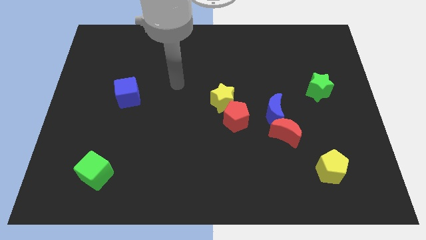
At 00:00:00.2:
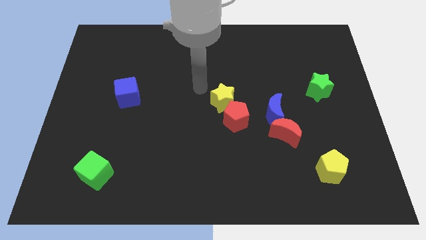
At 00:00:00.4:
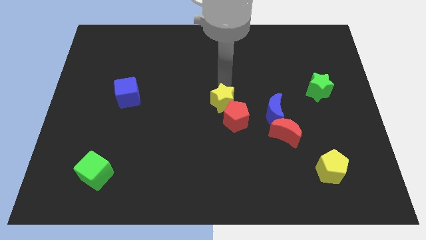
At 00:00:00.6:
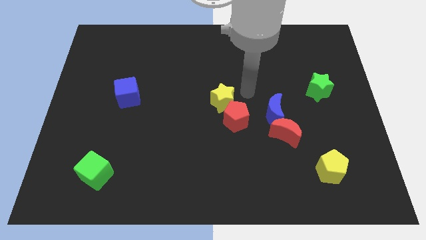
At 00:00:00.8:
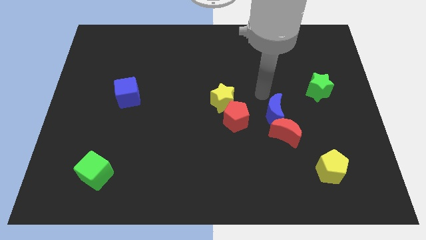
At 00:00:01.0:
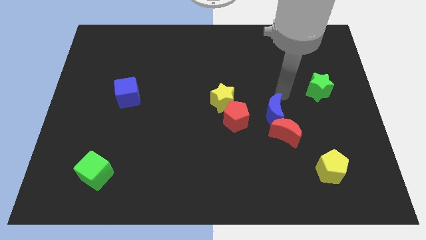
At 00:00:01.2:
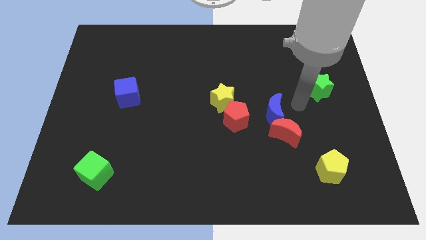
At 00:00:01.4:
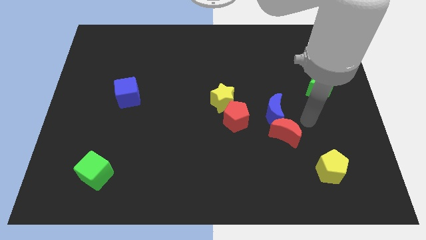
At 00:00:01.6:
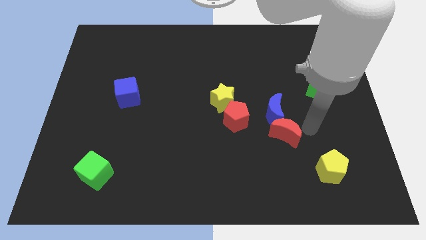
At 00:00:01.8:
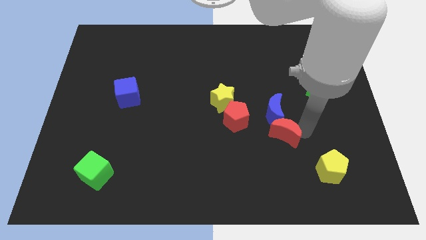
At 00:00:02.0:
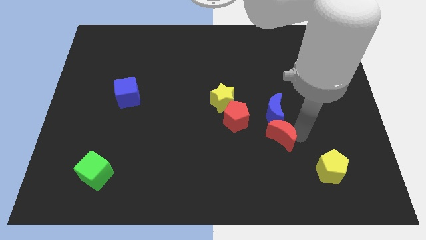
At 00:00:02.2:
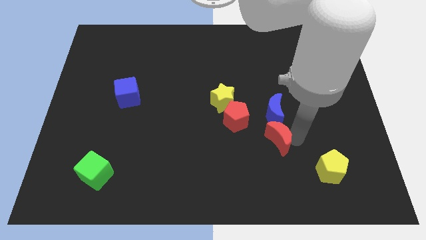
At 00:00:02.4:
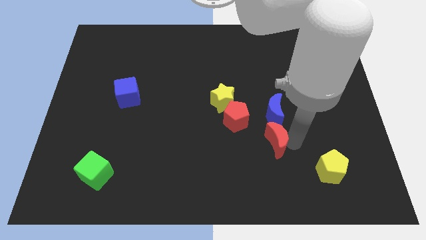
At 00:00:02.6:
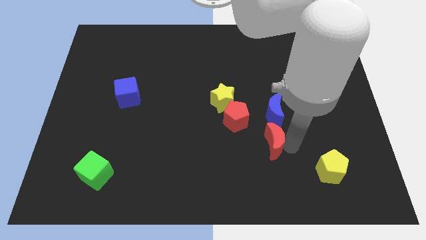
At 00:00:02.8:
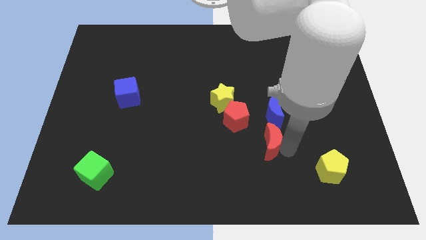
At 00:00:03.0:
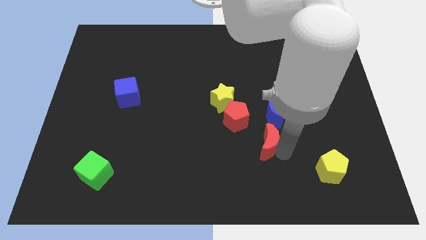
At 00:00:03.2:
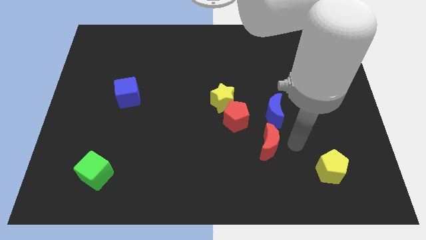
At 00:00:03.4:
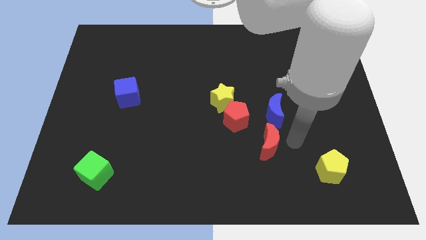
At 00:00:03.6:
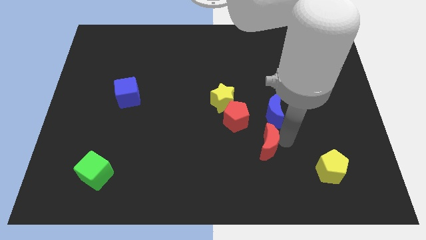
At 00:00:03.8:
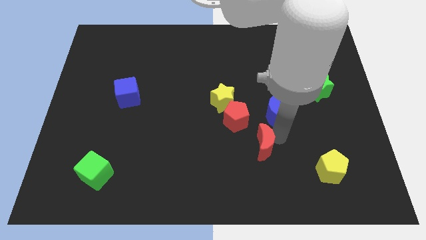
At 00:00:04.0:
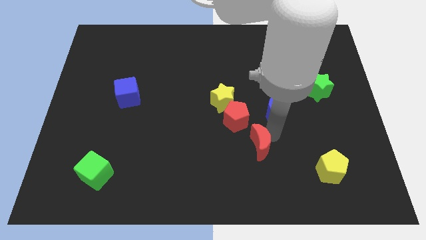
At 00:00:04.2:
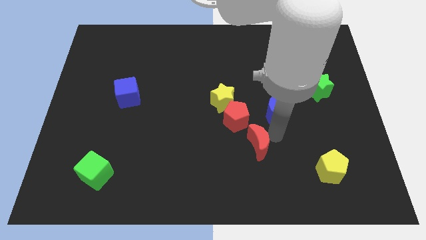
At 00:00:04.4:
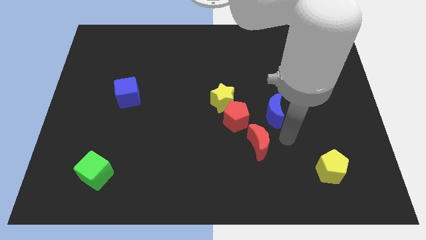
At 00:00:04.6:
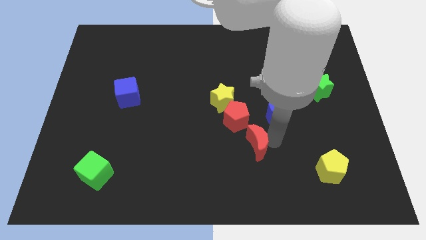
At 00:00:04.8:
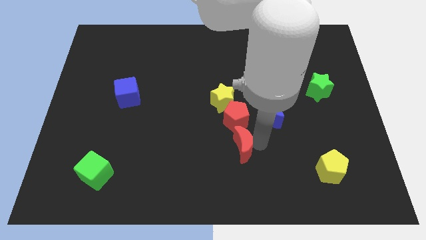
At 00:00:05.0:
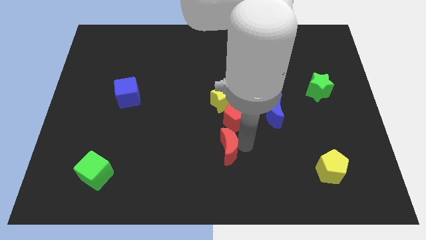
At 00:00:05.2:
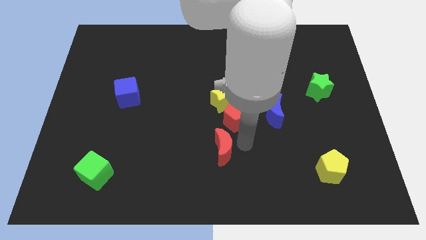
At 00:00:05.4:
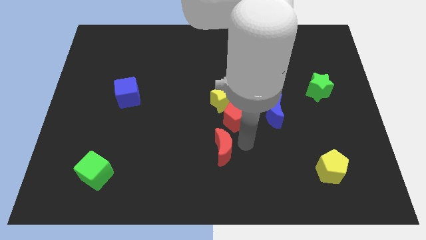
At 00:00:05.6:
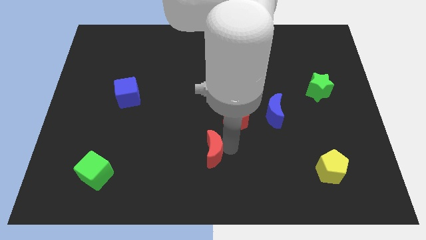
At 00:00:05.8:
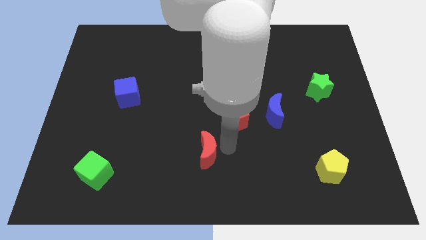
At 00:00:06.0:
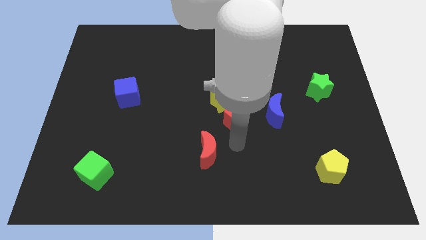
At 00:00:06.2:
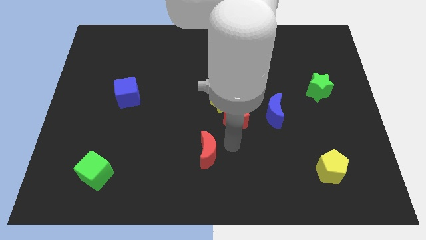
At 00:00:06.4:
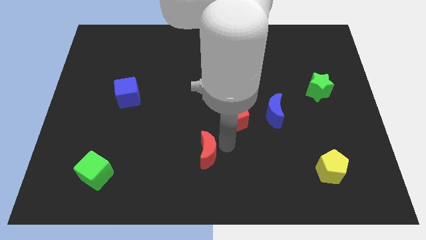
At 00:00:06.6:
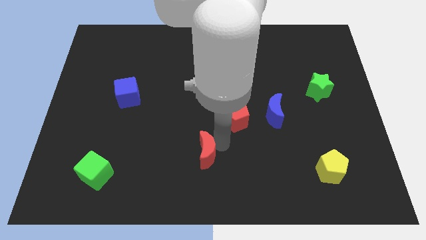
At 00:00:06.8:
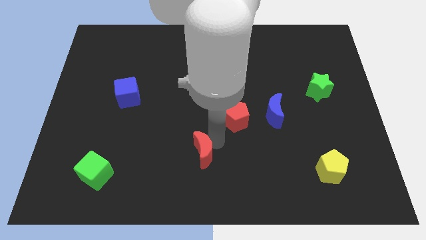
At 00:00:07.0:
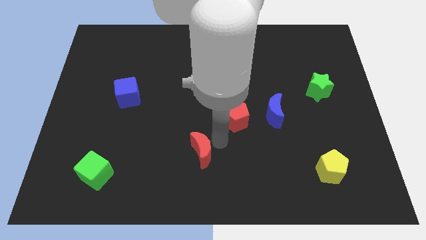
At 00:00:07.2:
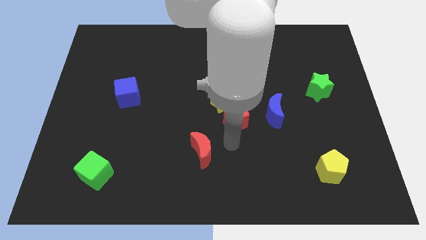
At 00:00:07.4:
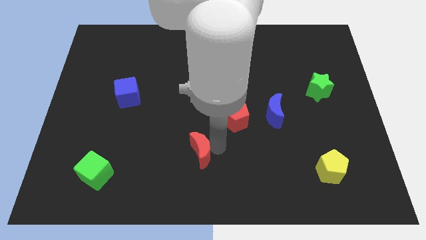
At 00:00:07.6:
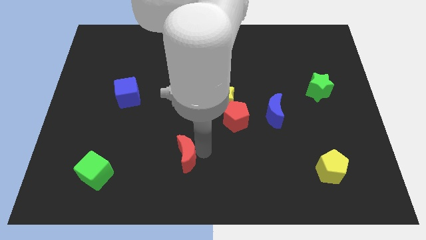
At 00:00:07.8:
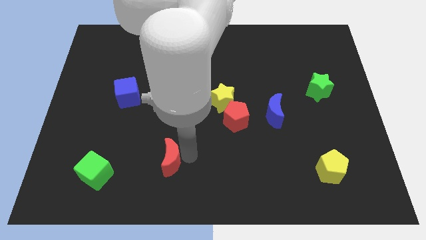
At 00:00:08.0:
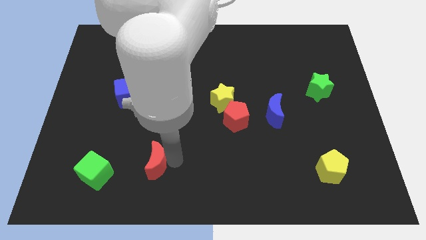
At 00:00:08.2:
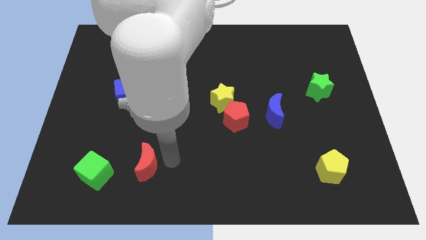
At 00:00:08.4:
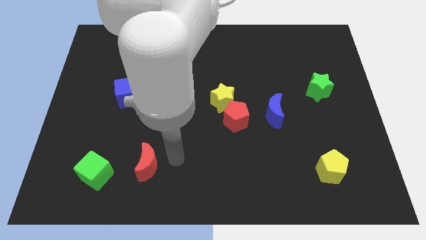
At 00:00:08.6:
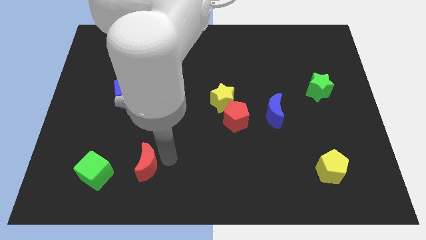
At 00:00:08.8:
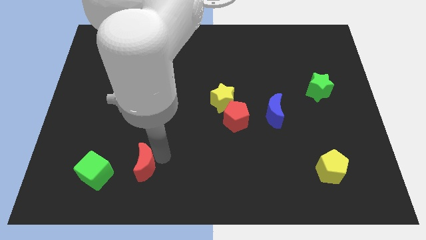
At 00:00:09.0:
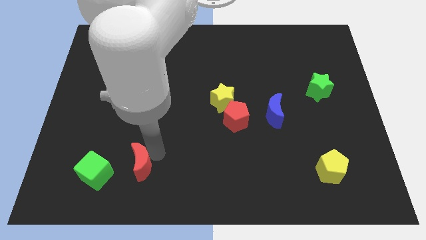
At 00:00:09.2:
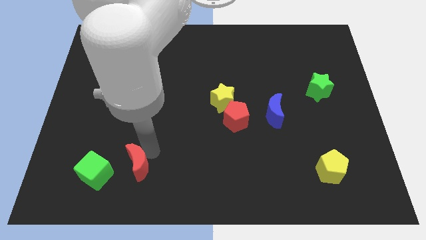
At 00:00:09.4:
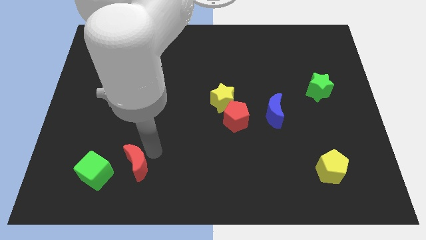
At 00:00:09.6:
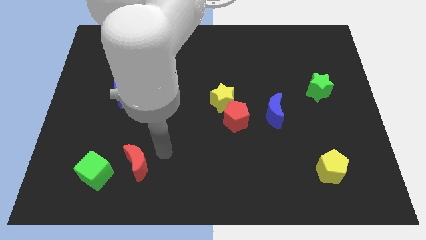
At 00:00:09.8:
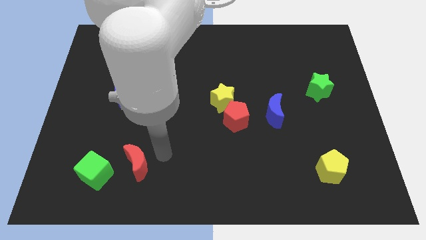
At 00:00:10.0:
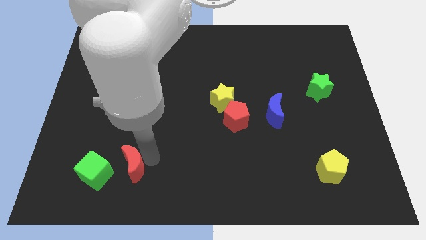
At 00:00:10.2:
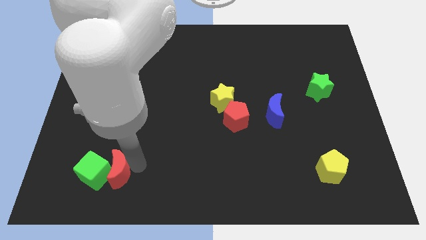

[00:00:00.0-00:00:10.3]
slide the red moon next to the green cube

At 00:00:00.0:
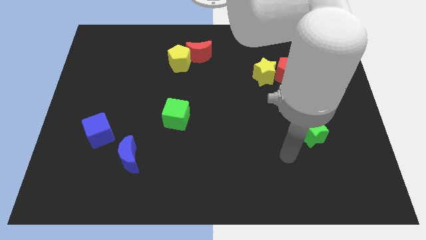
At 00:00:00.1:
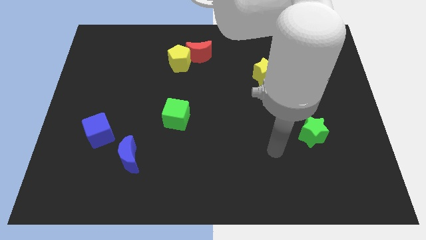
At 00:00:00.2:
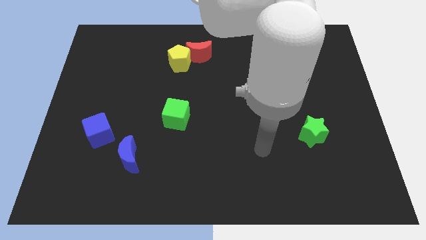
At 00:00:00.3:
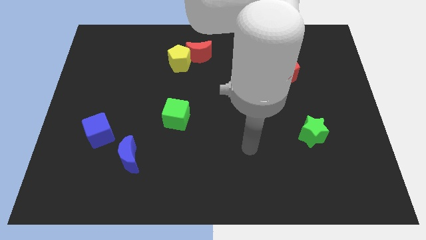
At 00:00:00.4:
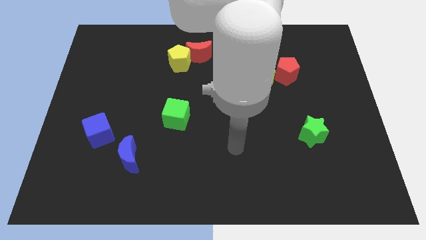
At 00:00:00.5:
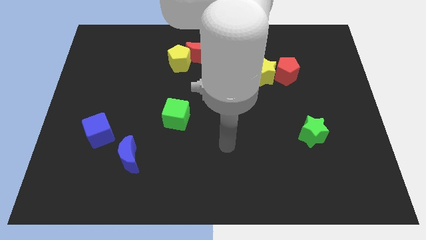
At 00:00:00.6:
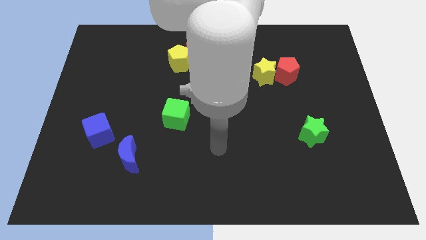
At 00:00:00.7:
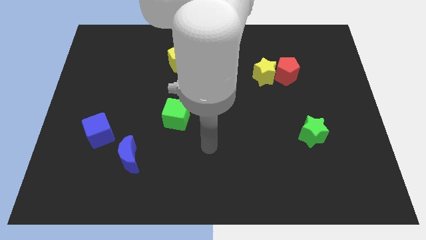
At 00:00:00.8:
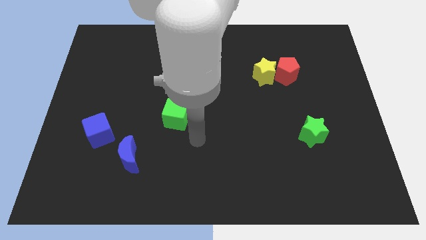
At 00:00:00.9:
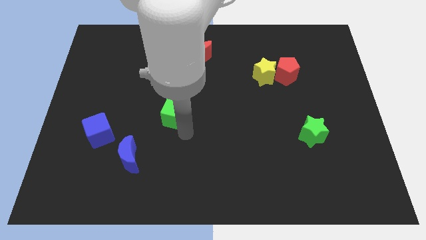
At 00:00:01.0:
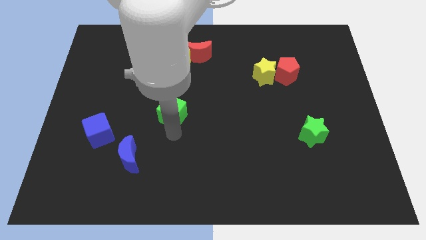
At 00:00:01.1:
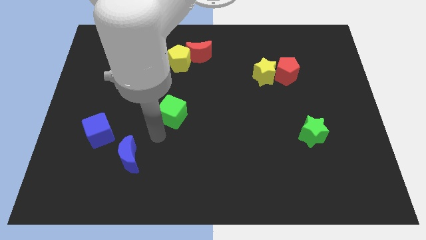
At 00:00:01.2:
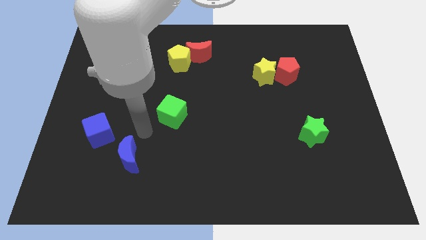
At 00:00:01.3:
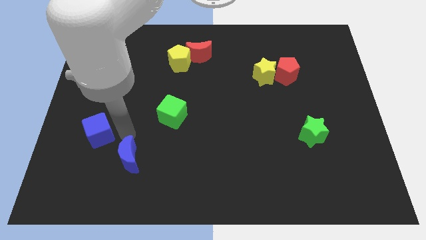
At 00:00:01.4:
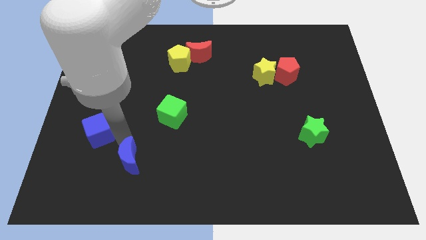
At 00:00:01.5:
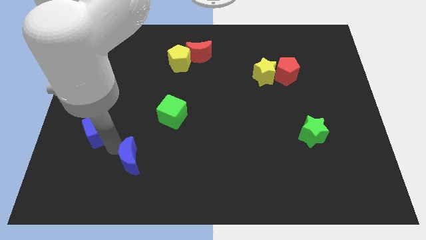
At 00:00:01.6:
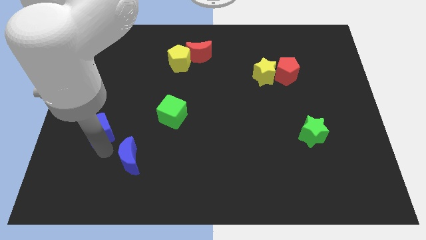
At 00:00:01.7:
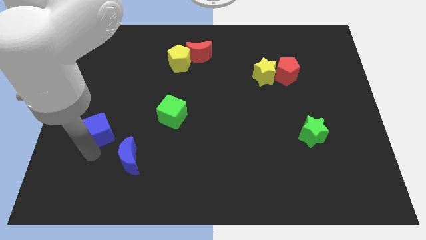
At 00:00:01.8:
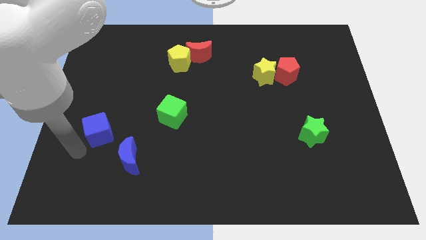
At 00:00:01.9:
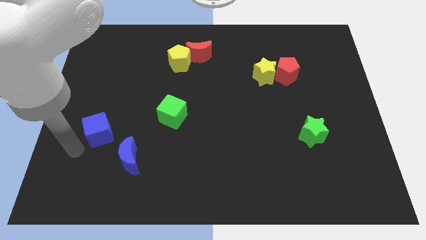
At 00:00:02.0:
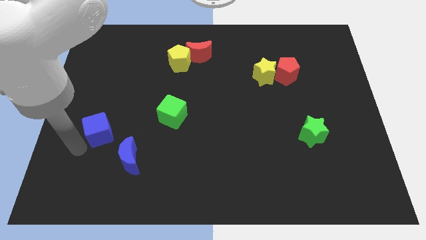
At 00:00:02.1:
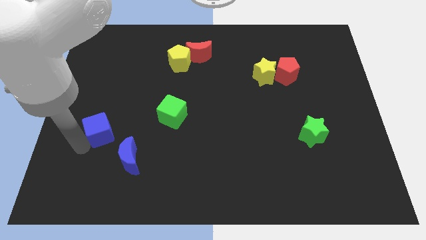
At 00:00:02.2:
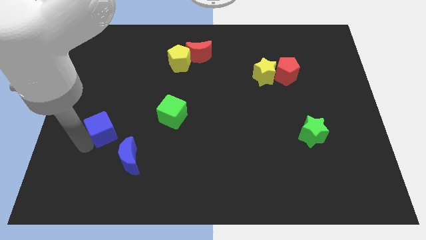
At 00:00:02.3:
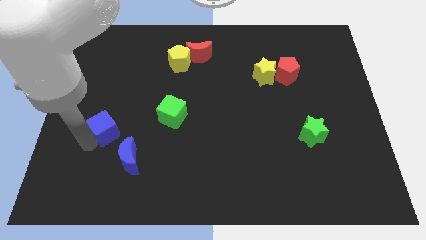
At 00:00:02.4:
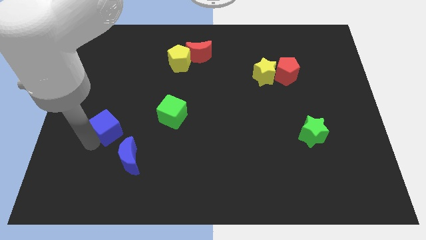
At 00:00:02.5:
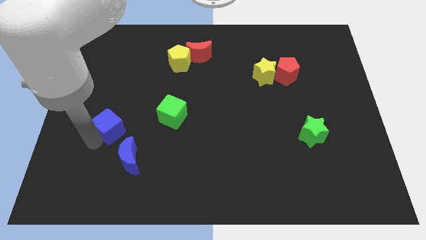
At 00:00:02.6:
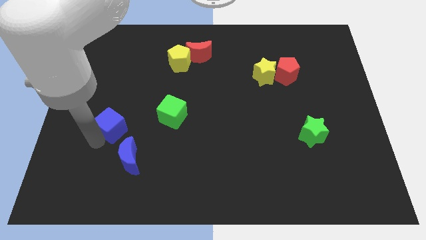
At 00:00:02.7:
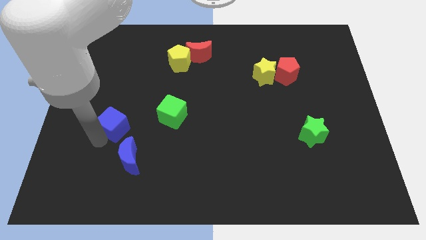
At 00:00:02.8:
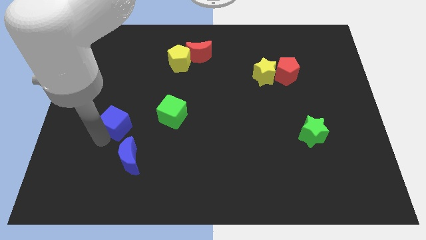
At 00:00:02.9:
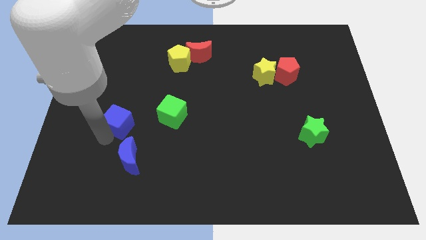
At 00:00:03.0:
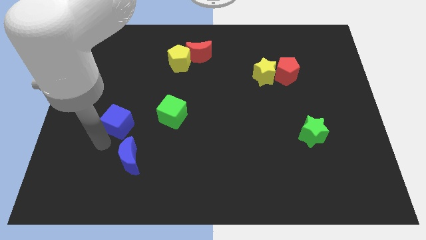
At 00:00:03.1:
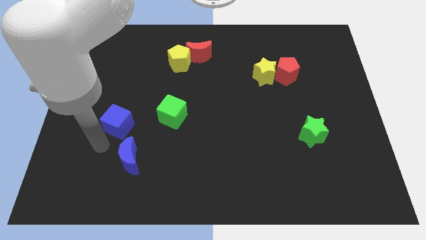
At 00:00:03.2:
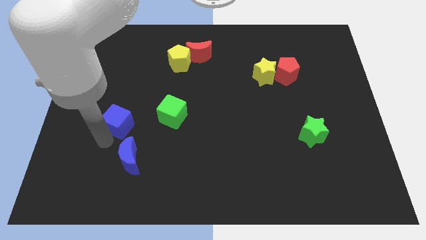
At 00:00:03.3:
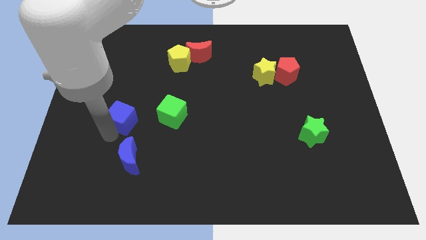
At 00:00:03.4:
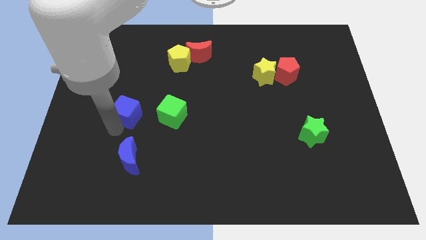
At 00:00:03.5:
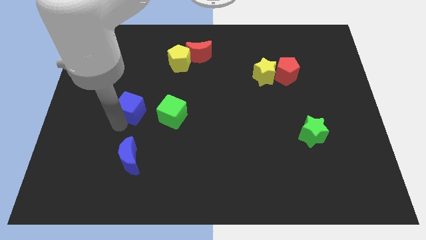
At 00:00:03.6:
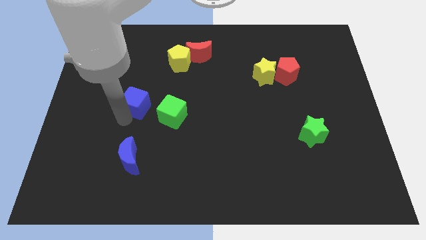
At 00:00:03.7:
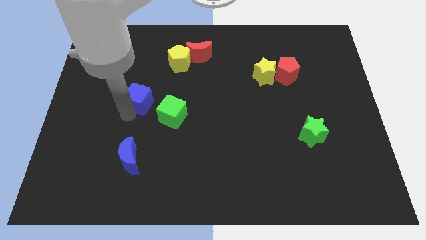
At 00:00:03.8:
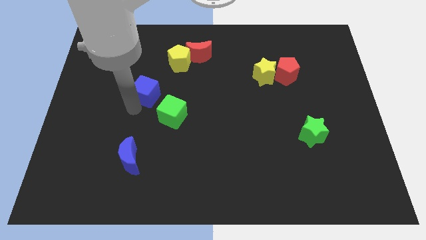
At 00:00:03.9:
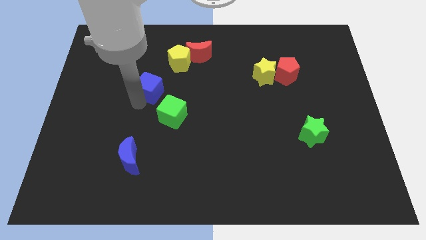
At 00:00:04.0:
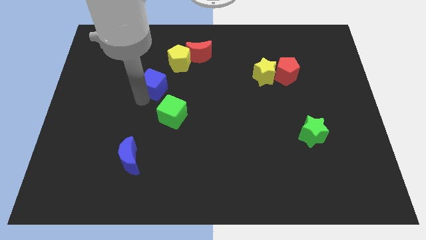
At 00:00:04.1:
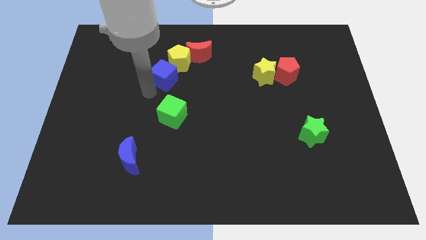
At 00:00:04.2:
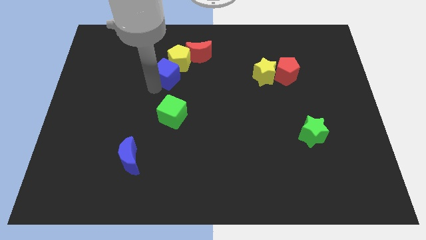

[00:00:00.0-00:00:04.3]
push the blue cube to the yellow pentagon
